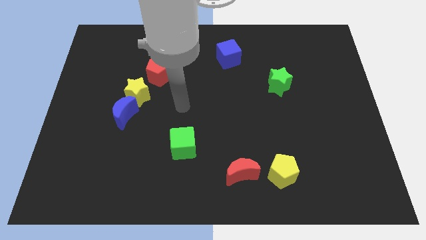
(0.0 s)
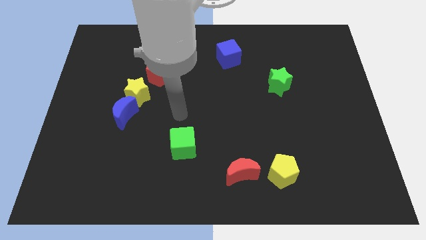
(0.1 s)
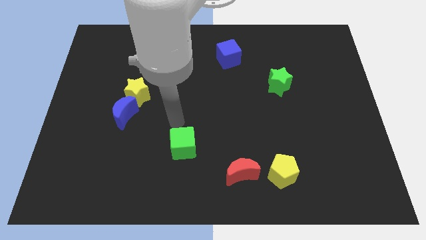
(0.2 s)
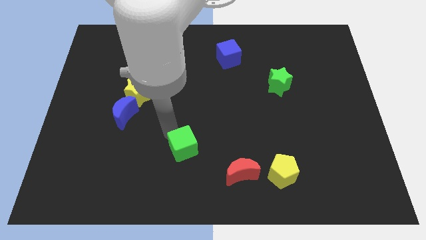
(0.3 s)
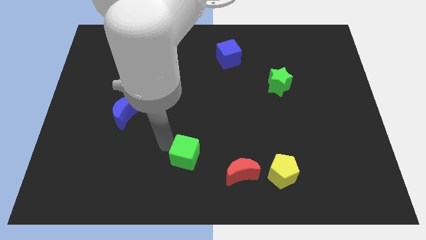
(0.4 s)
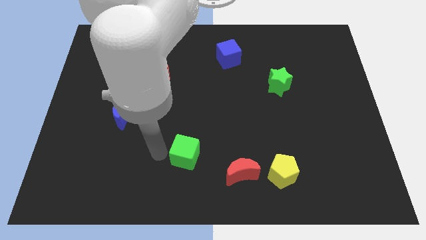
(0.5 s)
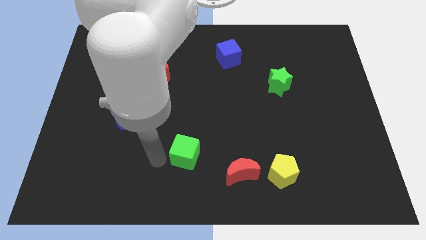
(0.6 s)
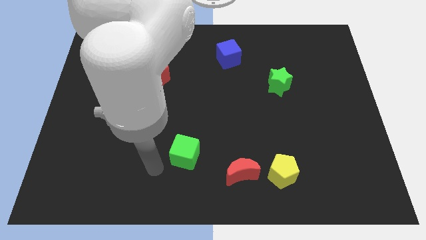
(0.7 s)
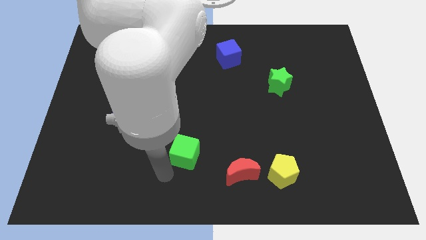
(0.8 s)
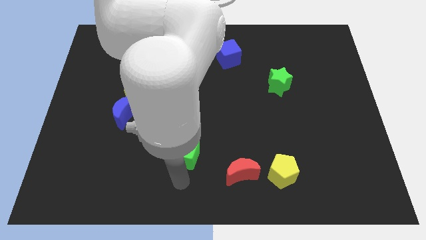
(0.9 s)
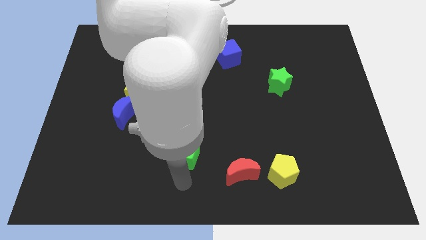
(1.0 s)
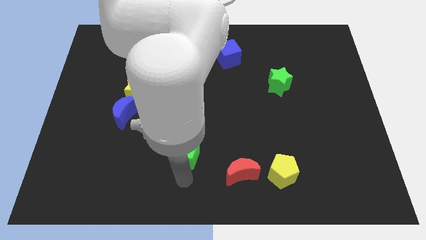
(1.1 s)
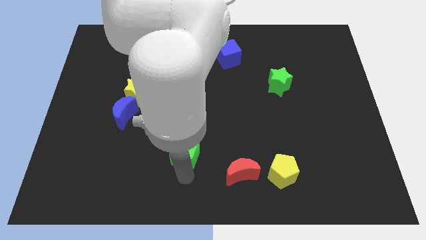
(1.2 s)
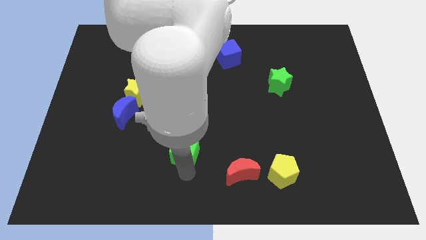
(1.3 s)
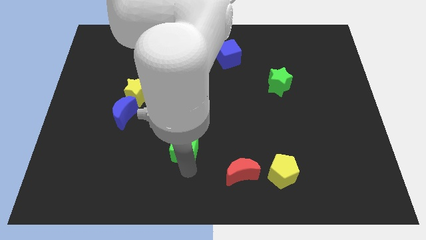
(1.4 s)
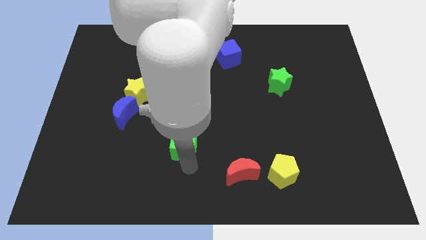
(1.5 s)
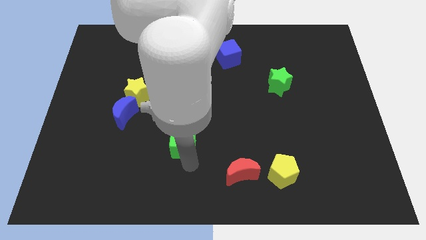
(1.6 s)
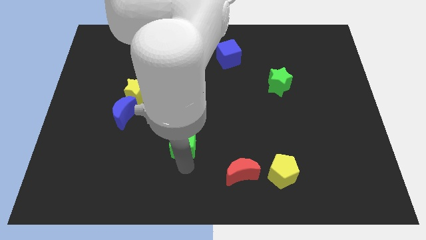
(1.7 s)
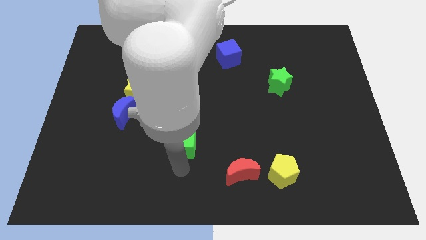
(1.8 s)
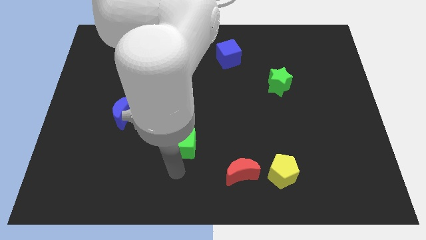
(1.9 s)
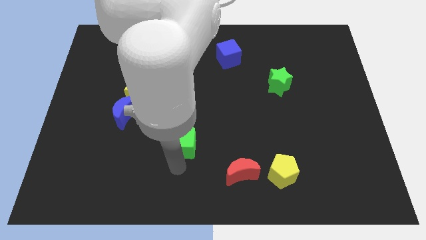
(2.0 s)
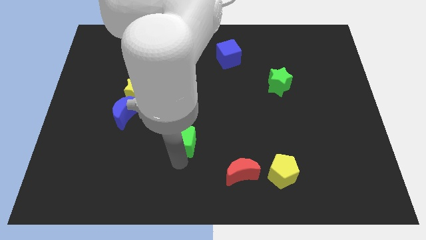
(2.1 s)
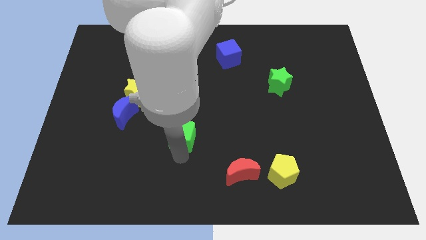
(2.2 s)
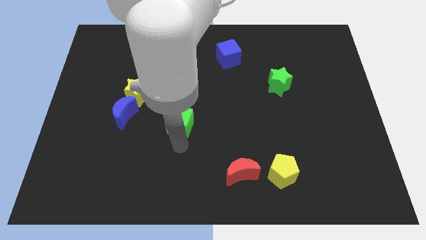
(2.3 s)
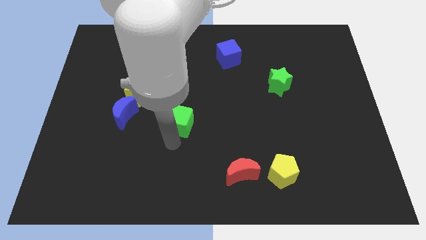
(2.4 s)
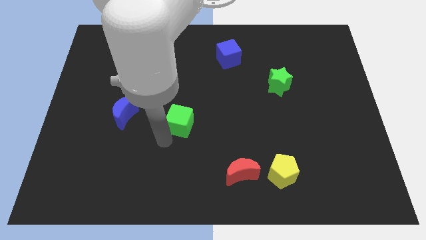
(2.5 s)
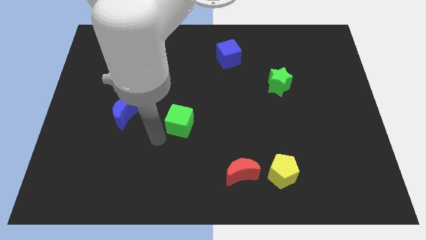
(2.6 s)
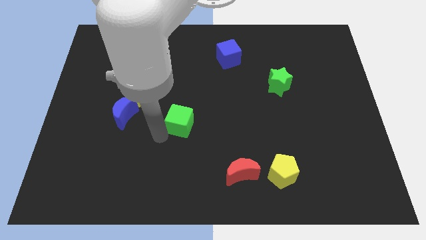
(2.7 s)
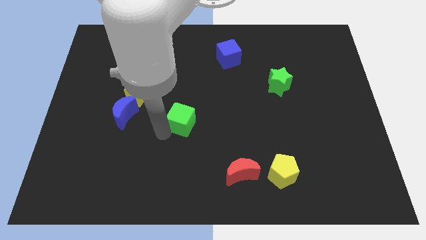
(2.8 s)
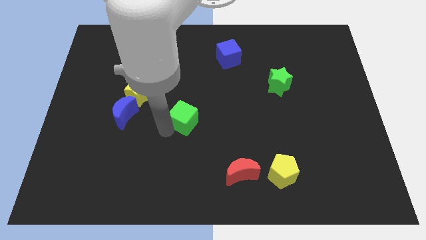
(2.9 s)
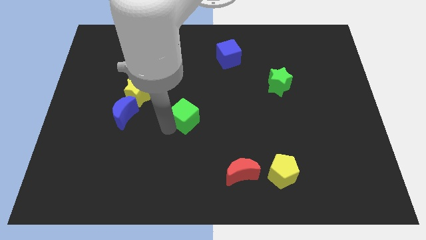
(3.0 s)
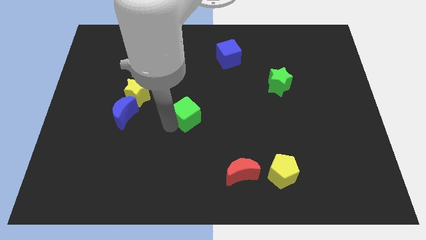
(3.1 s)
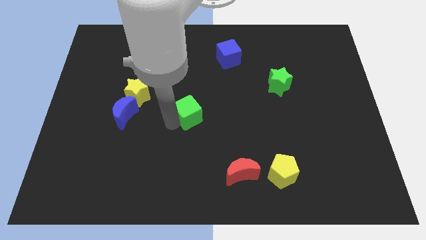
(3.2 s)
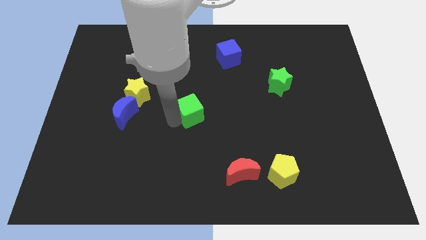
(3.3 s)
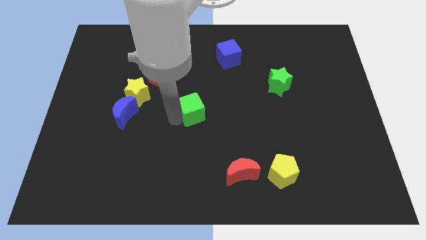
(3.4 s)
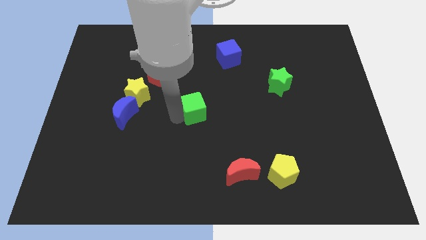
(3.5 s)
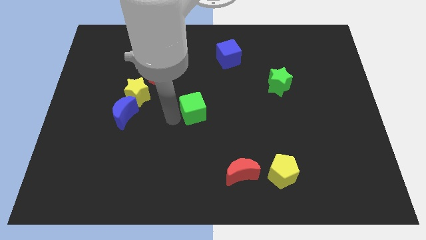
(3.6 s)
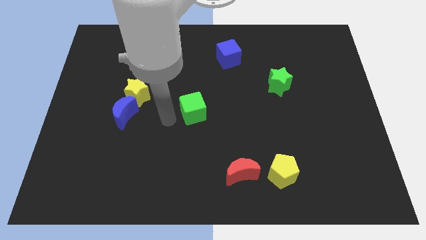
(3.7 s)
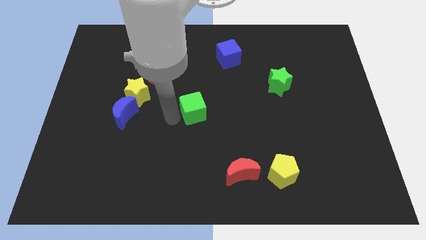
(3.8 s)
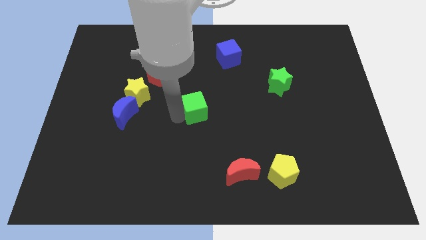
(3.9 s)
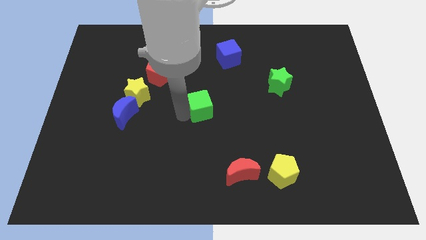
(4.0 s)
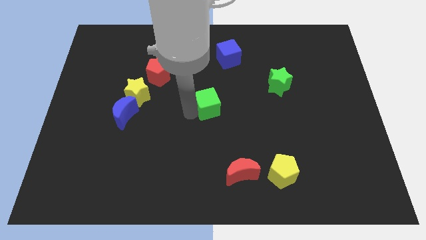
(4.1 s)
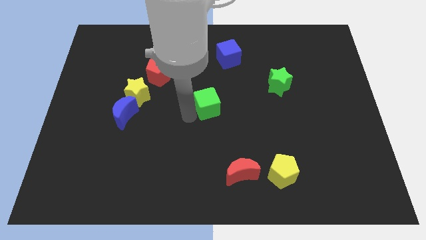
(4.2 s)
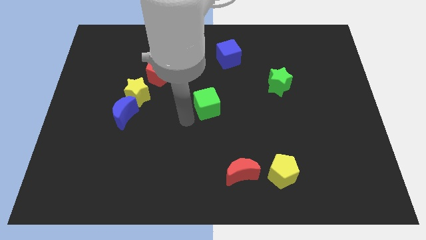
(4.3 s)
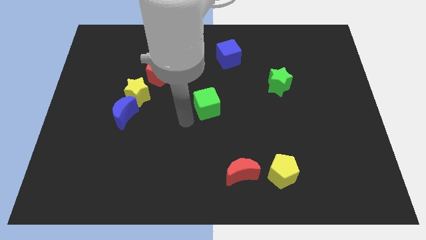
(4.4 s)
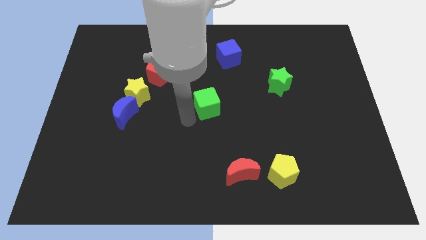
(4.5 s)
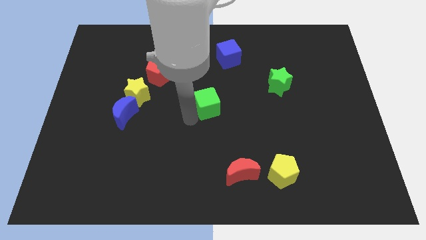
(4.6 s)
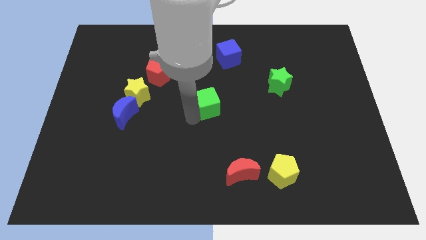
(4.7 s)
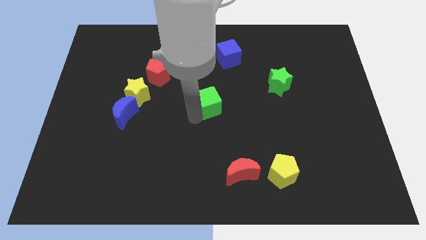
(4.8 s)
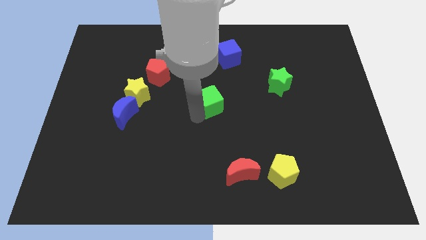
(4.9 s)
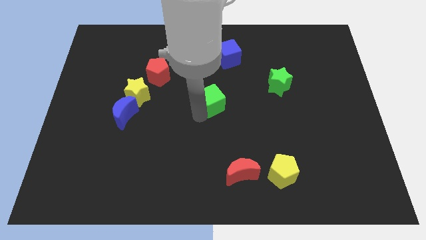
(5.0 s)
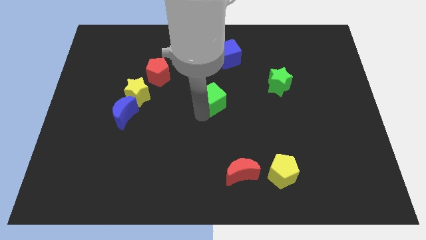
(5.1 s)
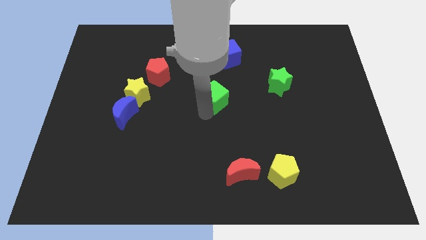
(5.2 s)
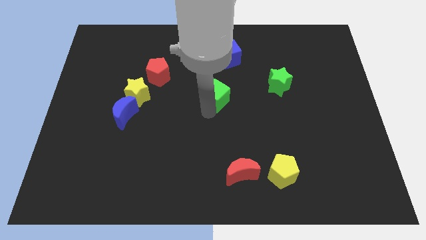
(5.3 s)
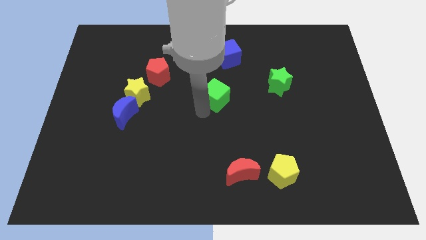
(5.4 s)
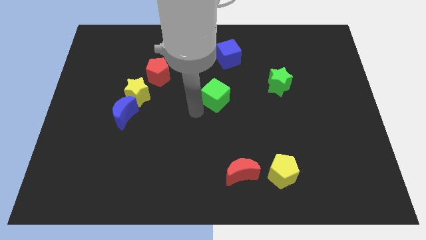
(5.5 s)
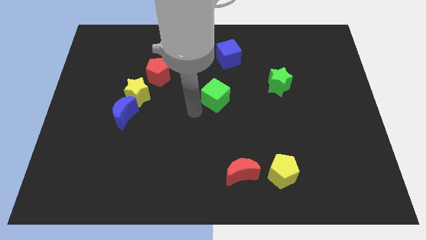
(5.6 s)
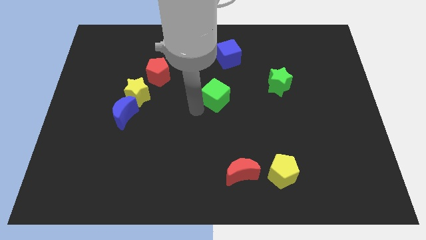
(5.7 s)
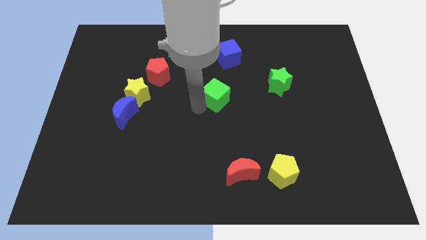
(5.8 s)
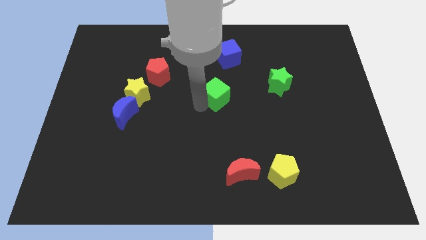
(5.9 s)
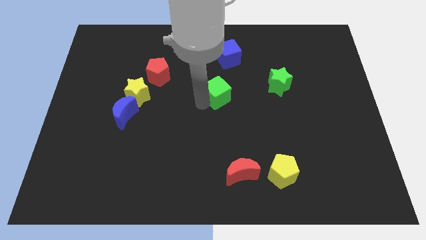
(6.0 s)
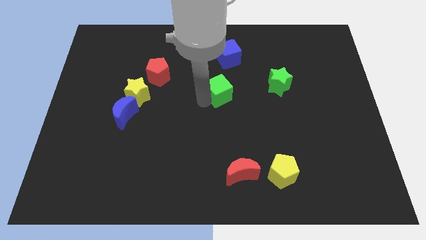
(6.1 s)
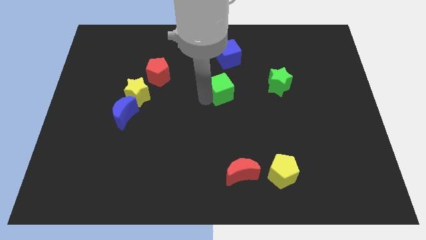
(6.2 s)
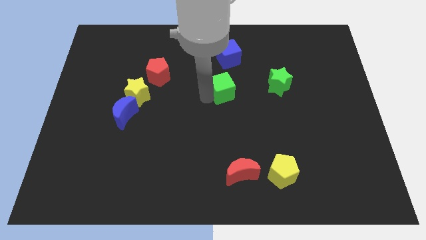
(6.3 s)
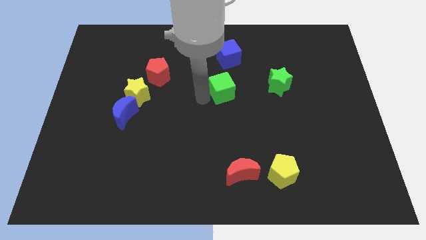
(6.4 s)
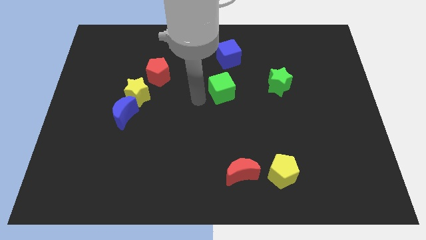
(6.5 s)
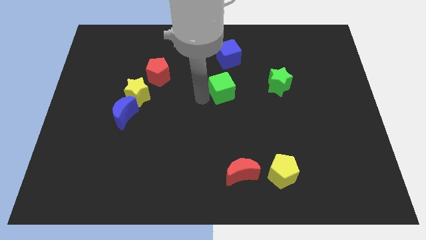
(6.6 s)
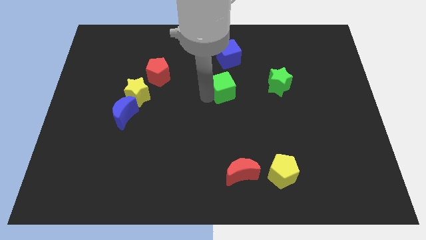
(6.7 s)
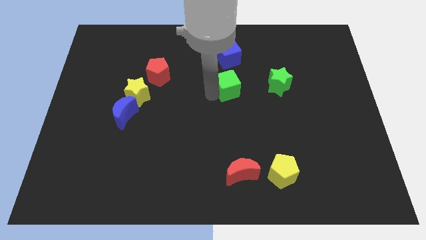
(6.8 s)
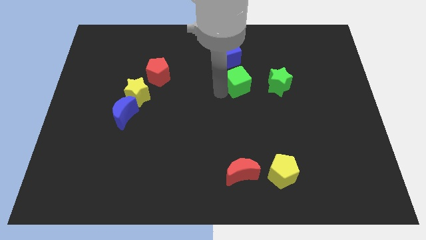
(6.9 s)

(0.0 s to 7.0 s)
push the green cube upwards and to the right diagonally

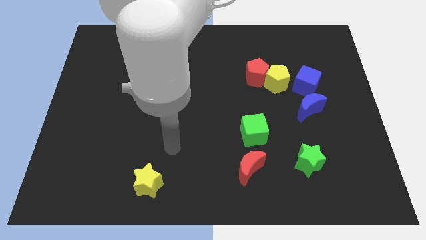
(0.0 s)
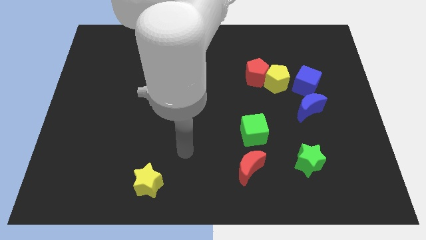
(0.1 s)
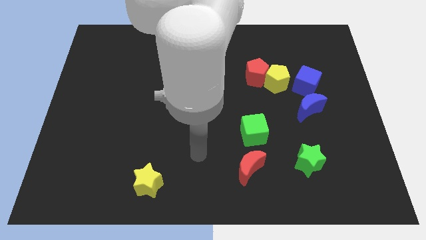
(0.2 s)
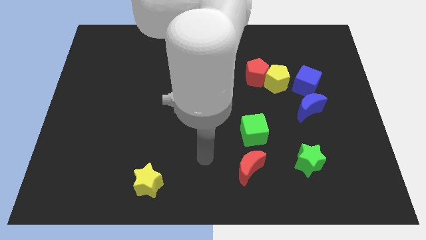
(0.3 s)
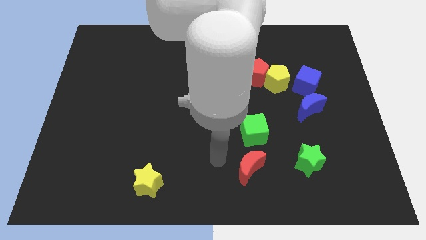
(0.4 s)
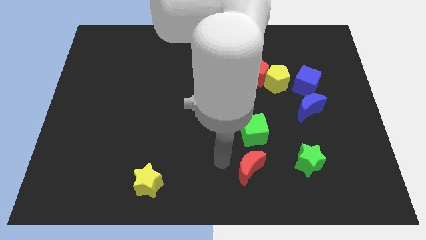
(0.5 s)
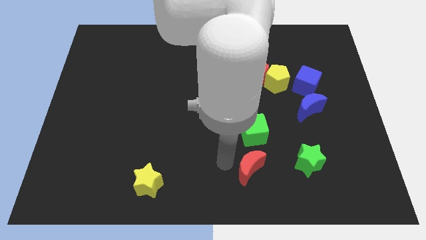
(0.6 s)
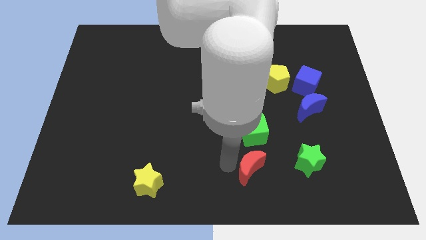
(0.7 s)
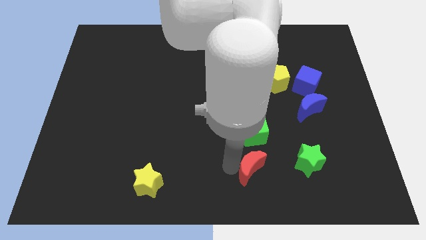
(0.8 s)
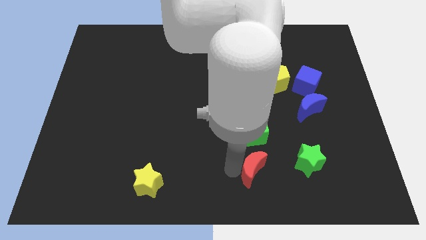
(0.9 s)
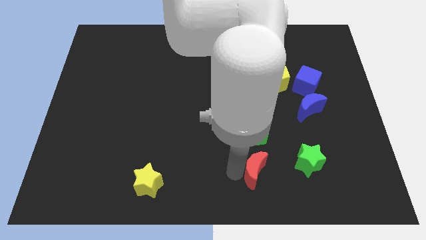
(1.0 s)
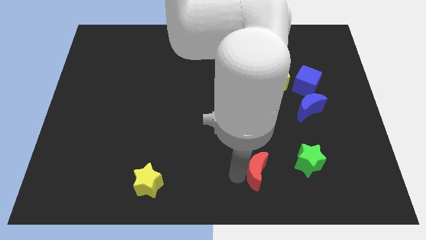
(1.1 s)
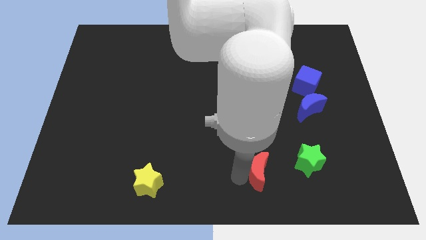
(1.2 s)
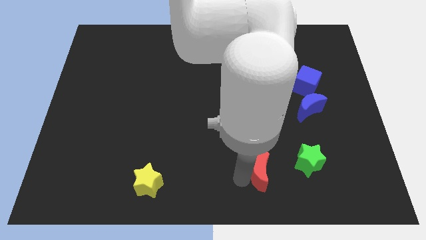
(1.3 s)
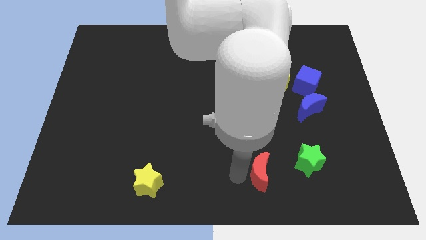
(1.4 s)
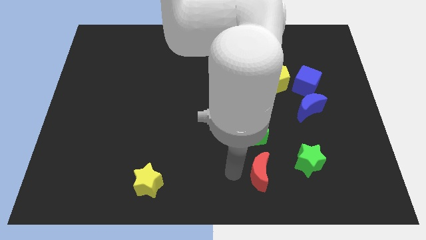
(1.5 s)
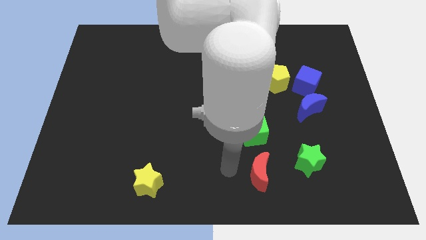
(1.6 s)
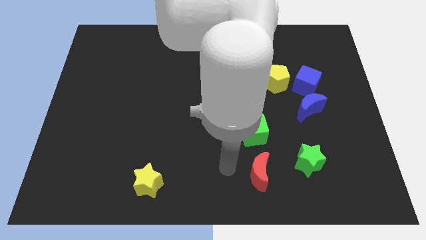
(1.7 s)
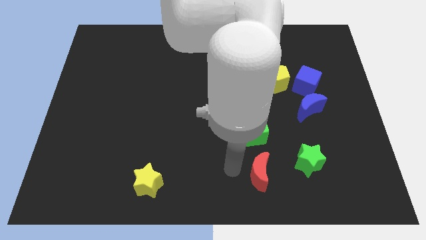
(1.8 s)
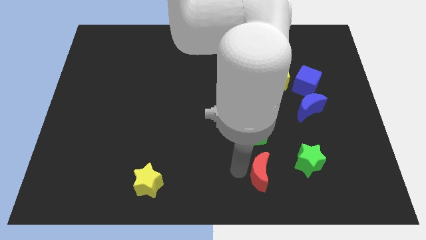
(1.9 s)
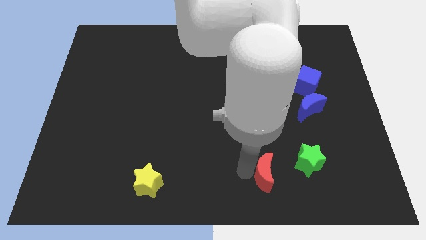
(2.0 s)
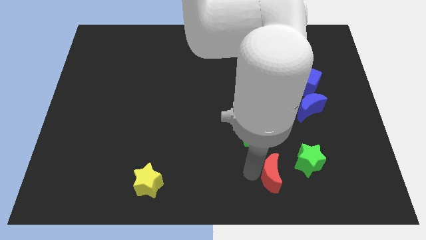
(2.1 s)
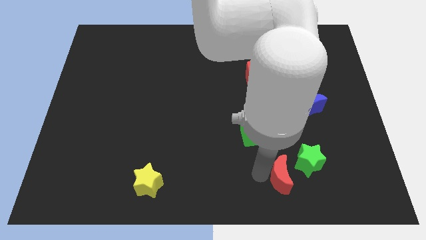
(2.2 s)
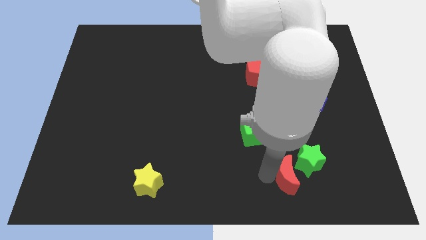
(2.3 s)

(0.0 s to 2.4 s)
push the red moon a little bit right
